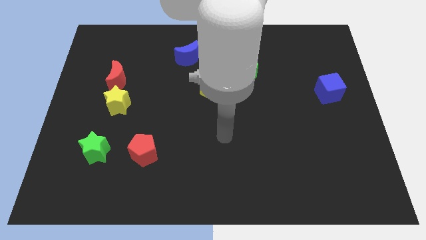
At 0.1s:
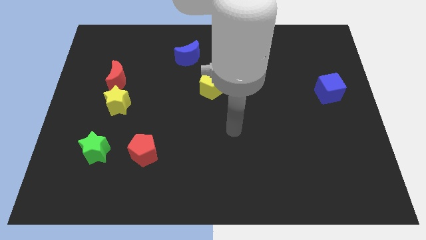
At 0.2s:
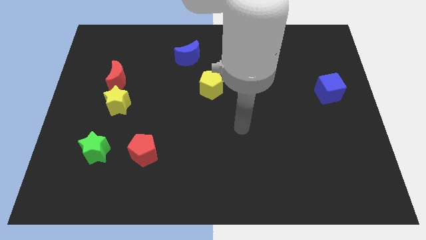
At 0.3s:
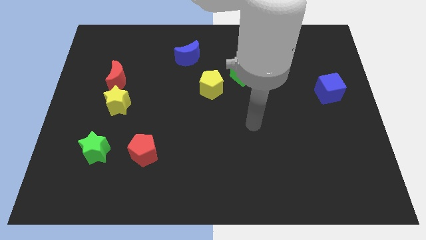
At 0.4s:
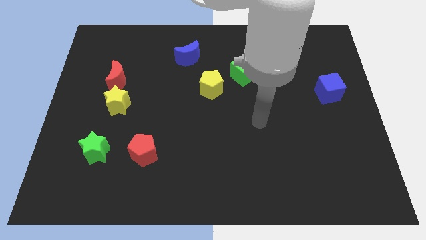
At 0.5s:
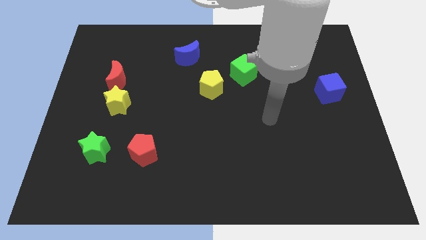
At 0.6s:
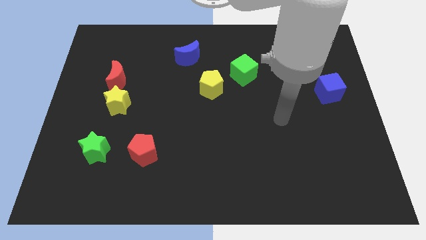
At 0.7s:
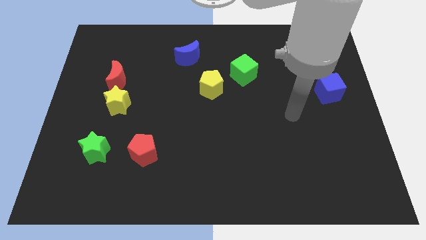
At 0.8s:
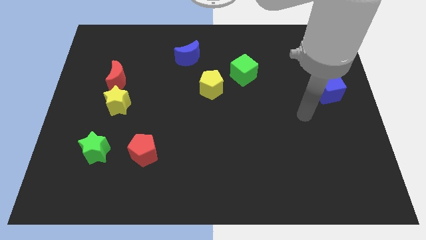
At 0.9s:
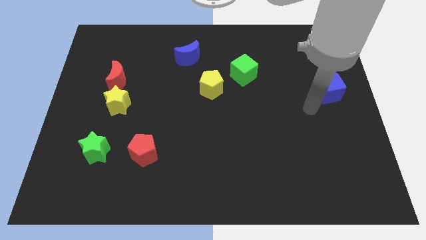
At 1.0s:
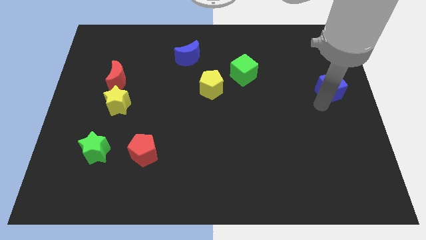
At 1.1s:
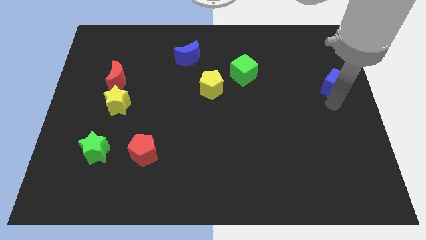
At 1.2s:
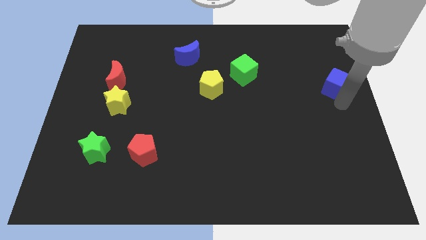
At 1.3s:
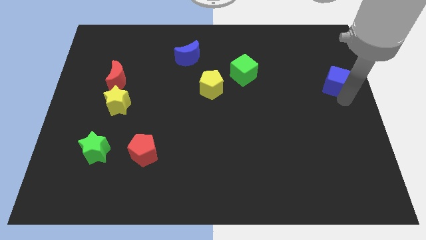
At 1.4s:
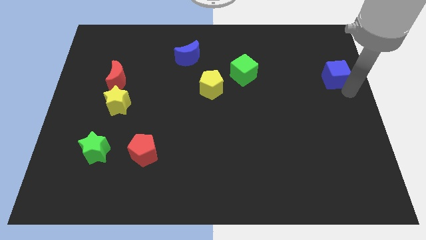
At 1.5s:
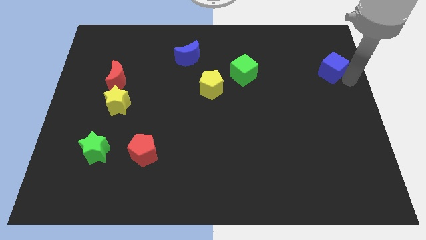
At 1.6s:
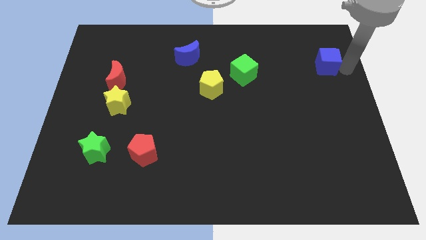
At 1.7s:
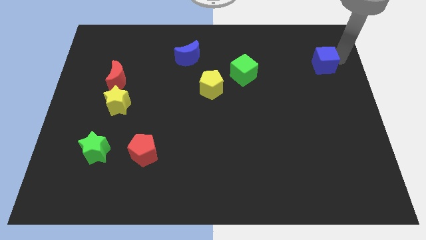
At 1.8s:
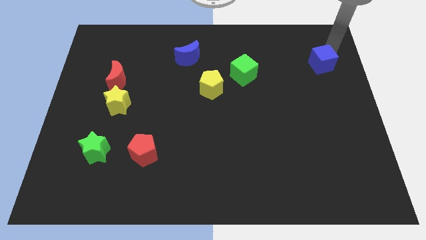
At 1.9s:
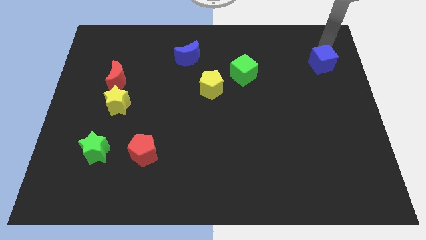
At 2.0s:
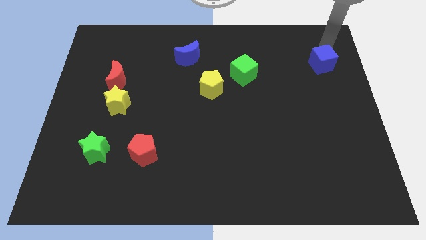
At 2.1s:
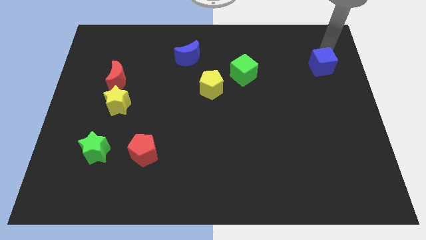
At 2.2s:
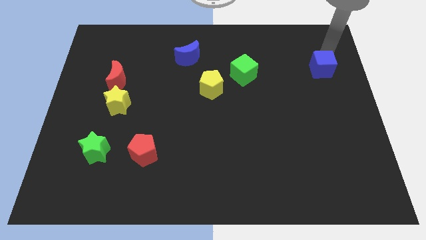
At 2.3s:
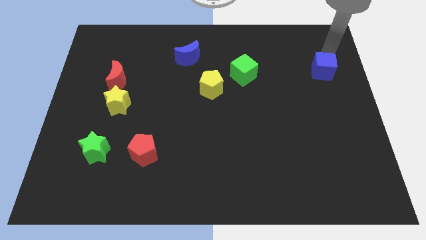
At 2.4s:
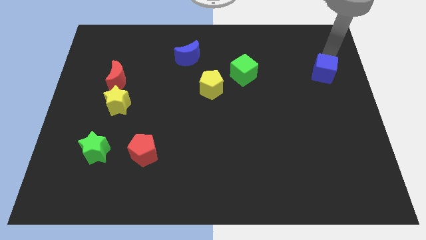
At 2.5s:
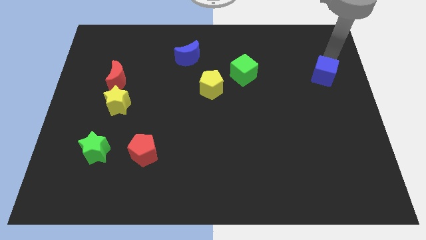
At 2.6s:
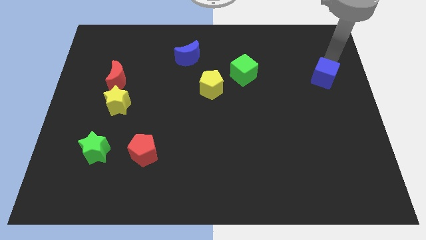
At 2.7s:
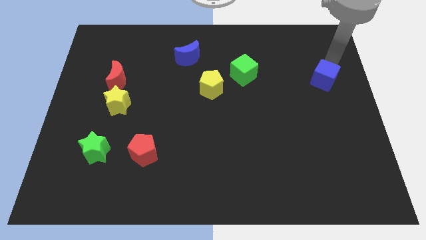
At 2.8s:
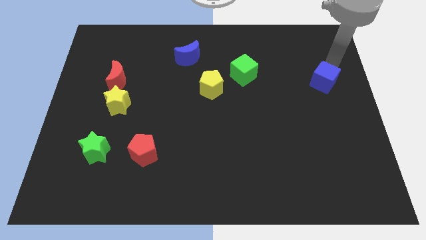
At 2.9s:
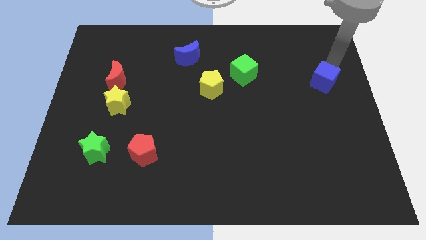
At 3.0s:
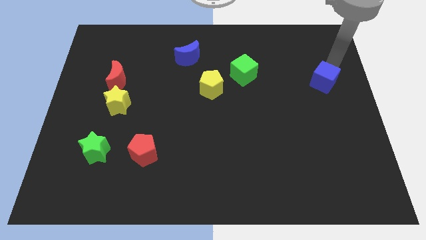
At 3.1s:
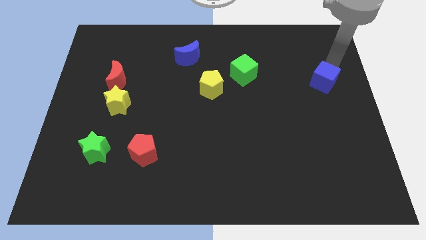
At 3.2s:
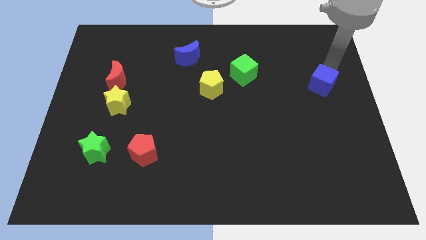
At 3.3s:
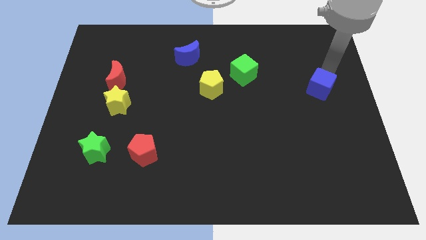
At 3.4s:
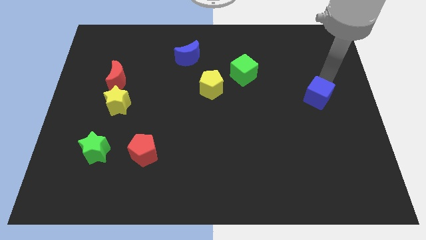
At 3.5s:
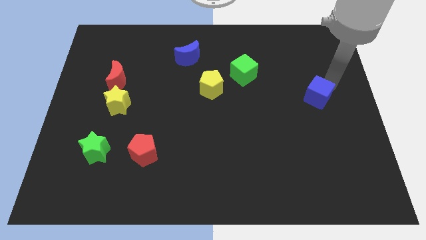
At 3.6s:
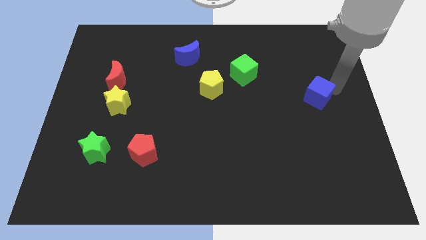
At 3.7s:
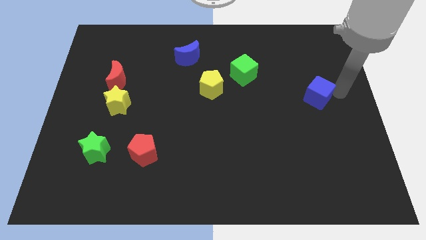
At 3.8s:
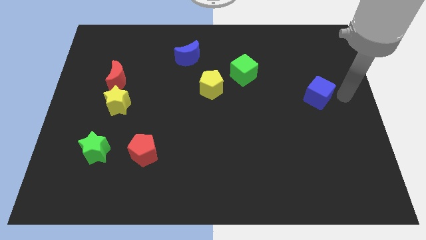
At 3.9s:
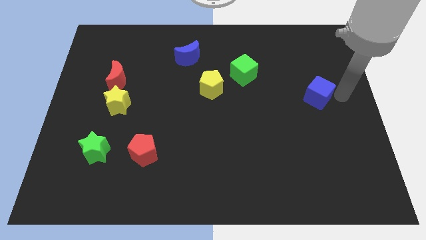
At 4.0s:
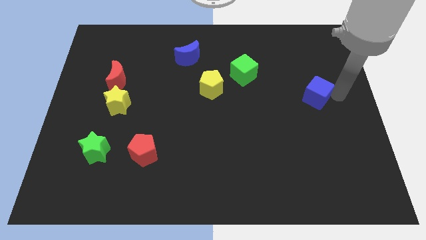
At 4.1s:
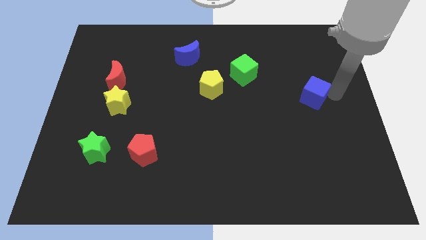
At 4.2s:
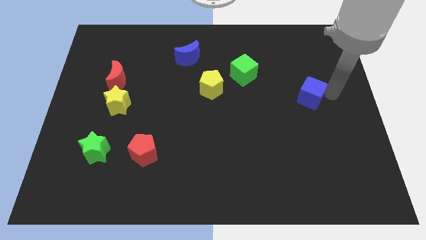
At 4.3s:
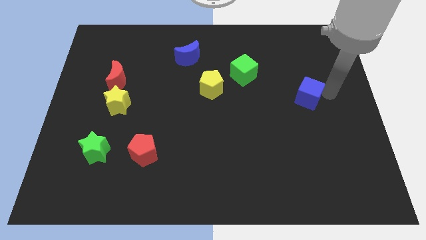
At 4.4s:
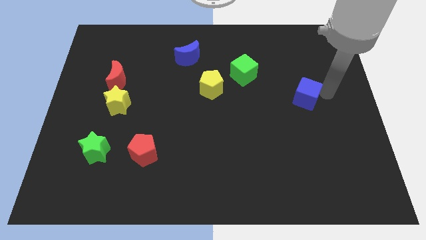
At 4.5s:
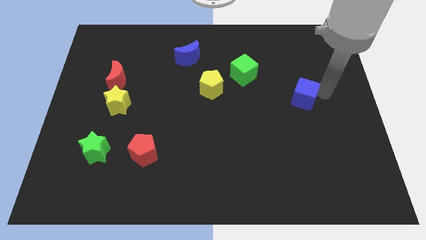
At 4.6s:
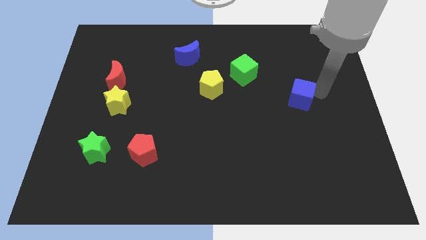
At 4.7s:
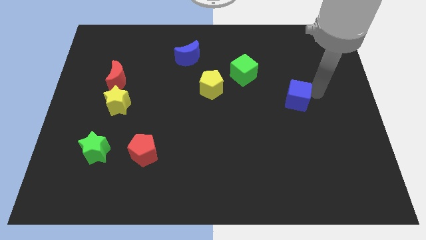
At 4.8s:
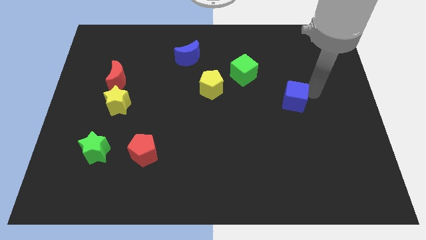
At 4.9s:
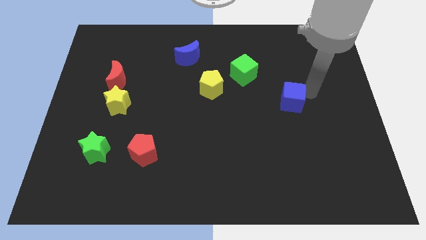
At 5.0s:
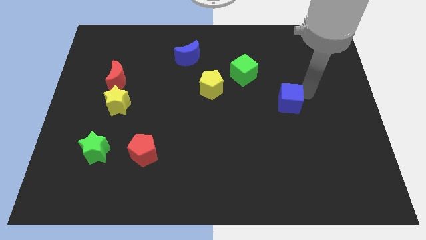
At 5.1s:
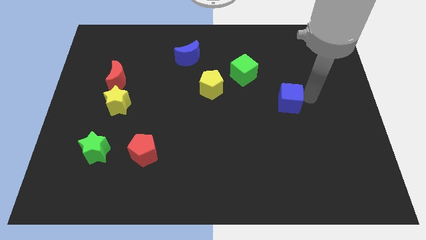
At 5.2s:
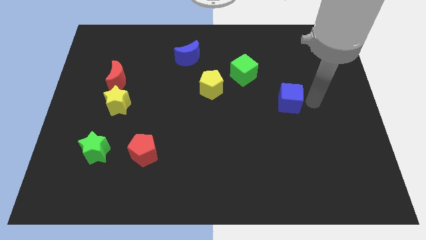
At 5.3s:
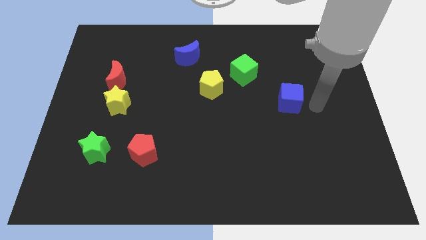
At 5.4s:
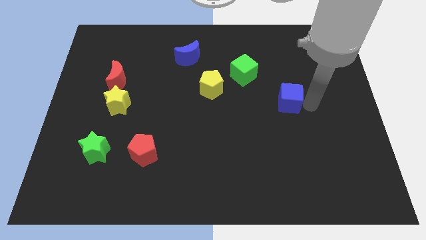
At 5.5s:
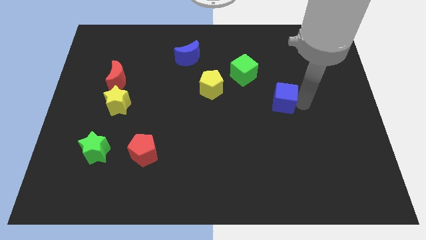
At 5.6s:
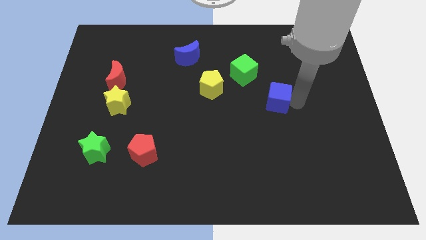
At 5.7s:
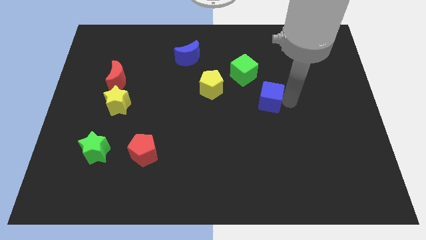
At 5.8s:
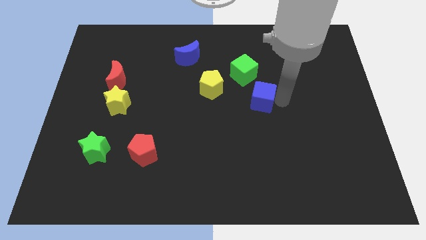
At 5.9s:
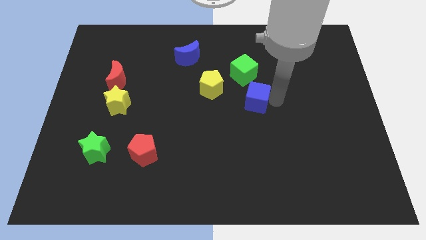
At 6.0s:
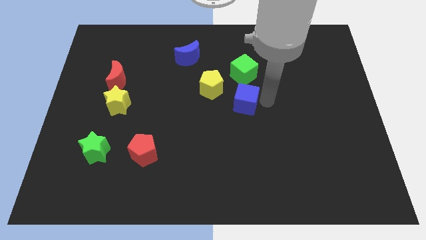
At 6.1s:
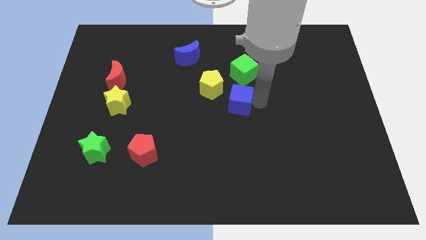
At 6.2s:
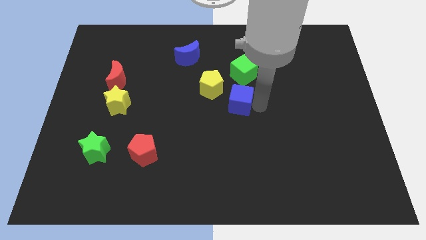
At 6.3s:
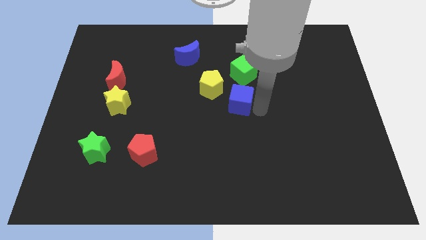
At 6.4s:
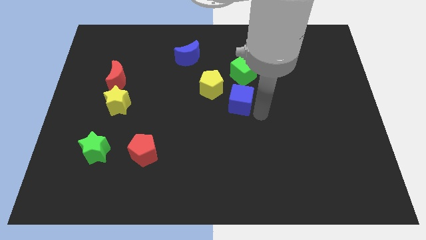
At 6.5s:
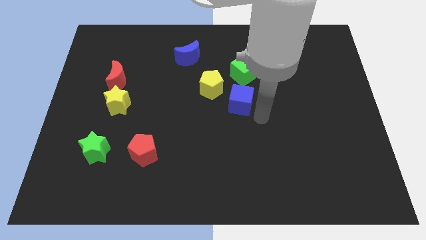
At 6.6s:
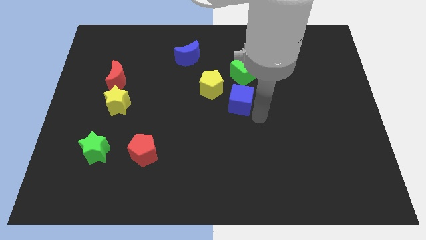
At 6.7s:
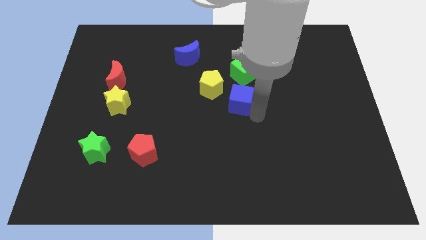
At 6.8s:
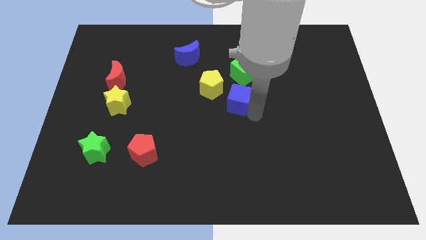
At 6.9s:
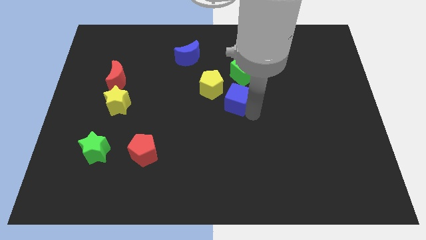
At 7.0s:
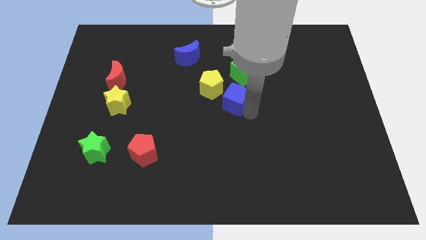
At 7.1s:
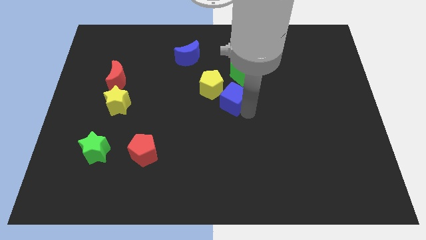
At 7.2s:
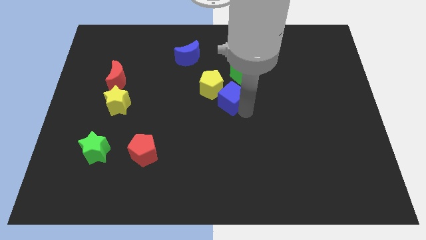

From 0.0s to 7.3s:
push the blue cube next to the yellow pentagon
